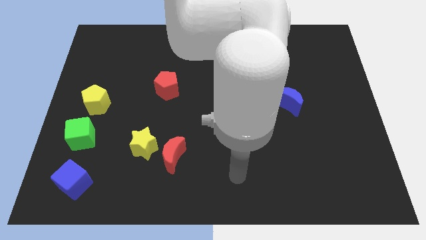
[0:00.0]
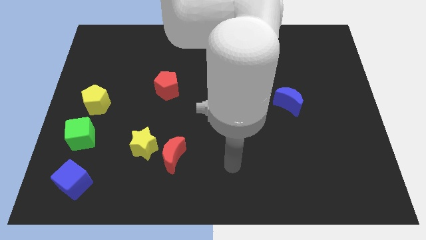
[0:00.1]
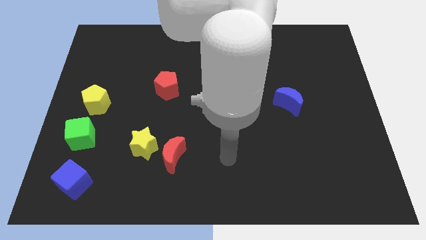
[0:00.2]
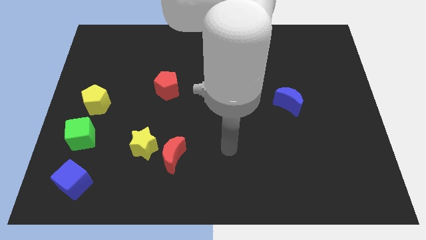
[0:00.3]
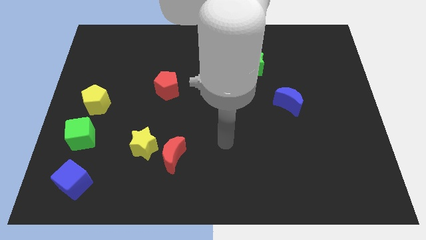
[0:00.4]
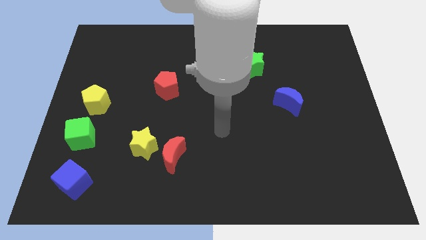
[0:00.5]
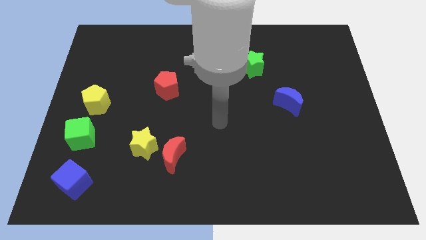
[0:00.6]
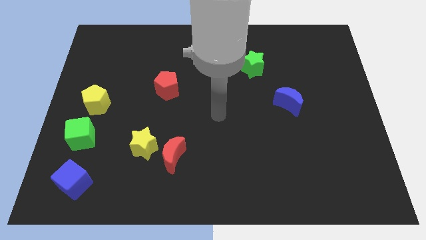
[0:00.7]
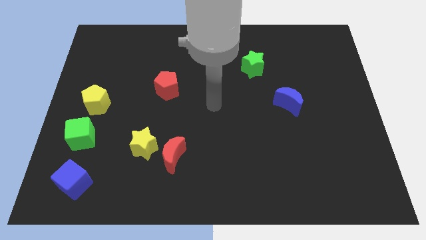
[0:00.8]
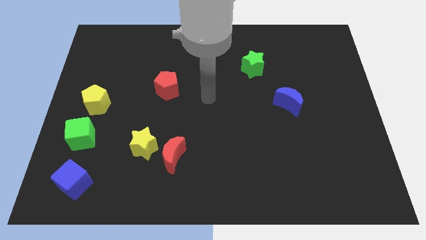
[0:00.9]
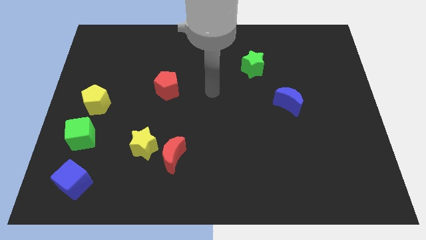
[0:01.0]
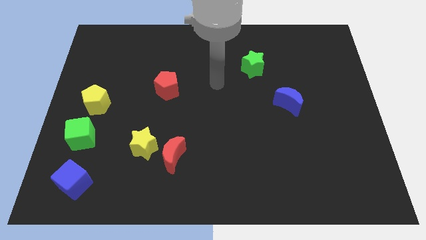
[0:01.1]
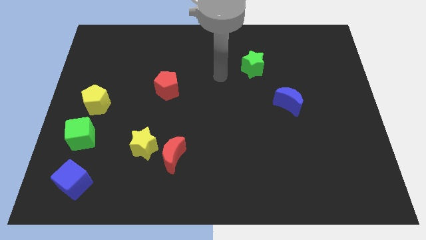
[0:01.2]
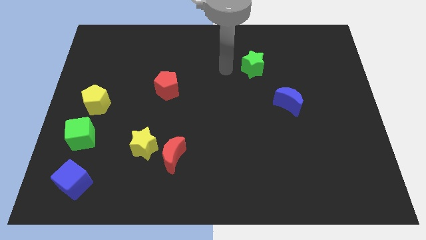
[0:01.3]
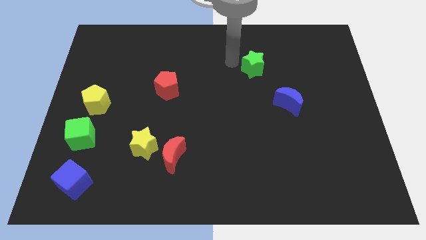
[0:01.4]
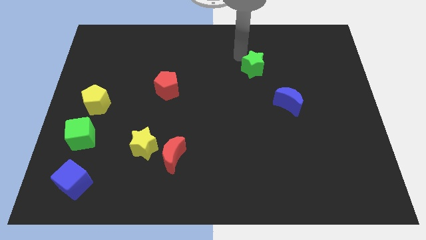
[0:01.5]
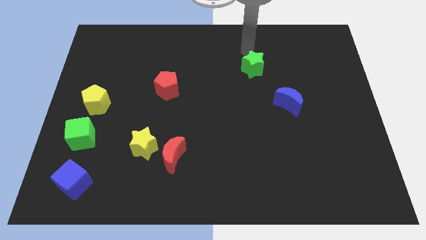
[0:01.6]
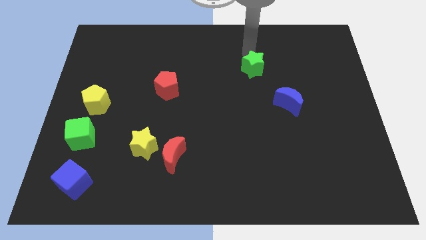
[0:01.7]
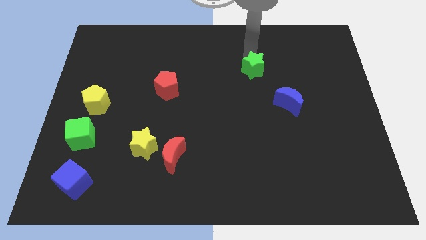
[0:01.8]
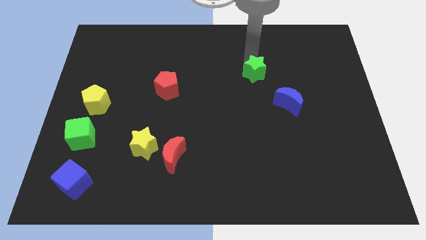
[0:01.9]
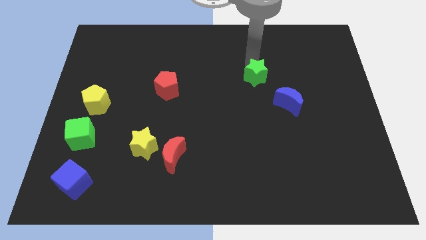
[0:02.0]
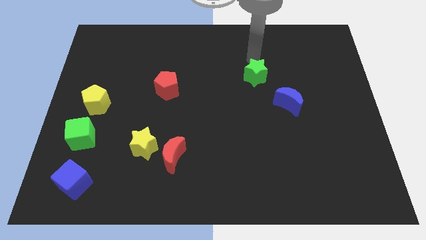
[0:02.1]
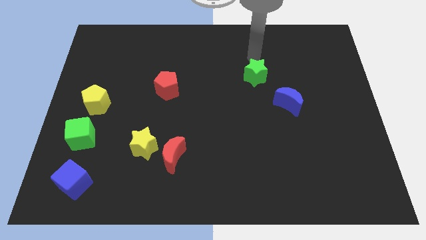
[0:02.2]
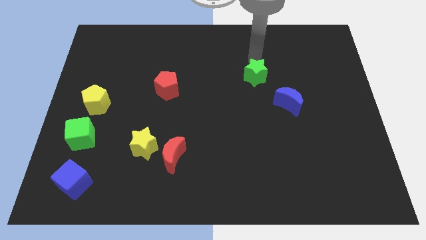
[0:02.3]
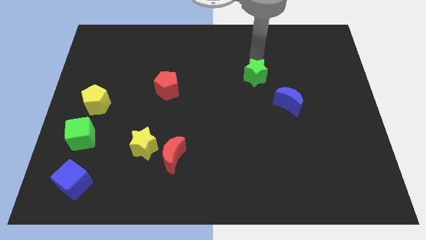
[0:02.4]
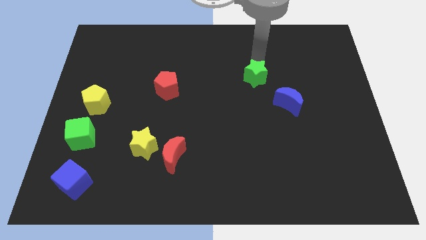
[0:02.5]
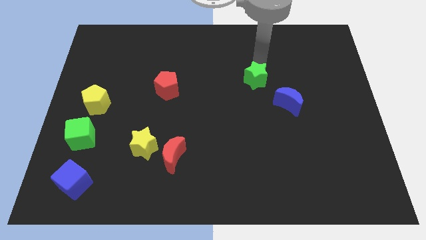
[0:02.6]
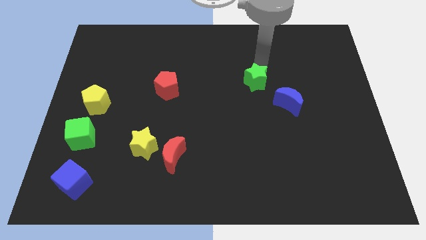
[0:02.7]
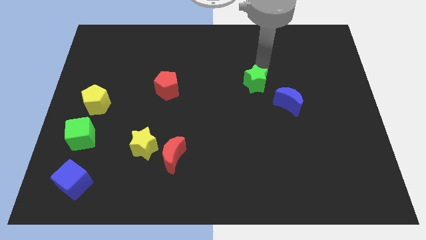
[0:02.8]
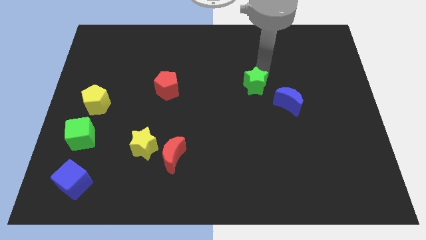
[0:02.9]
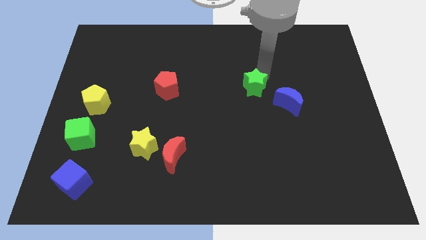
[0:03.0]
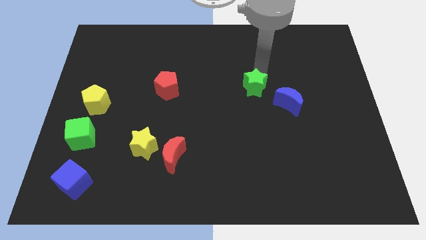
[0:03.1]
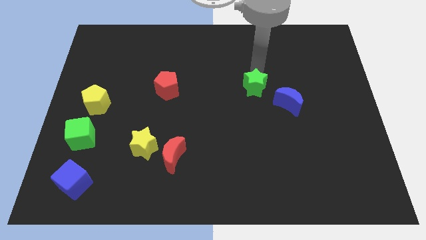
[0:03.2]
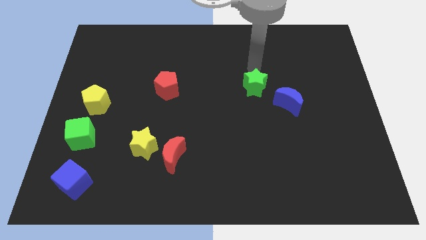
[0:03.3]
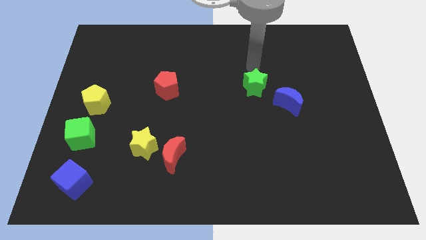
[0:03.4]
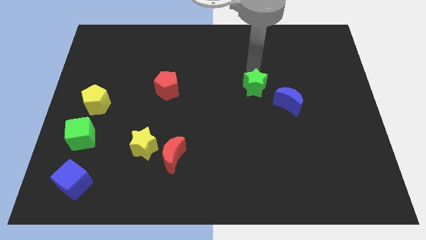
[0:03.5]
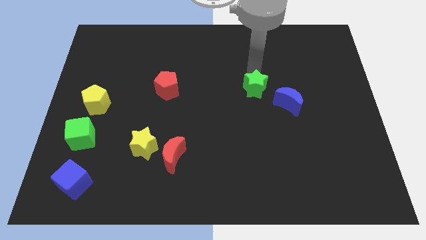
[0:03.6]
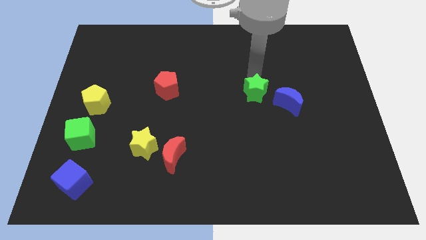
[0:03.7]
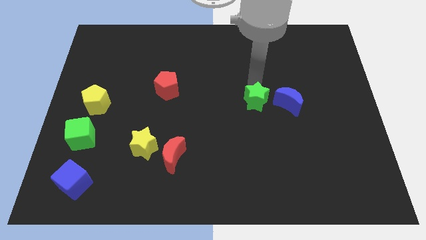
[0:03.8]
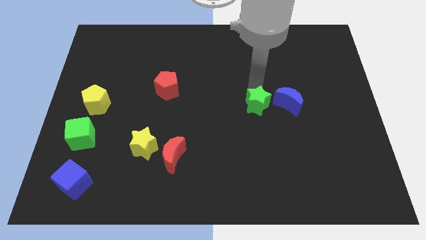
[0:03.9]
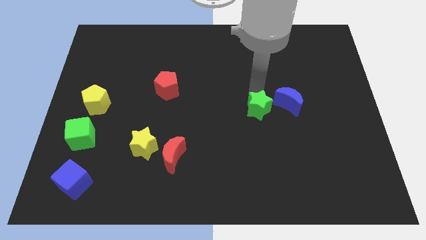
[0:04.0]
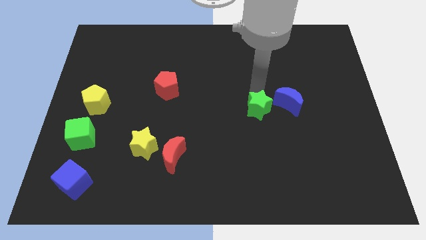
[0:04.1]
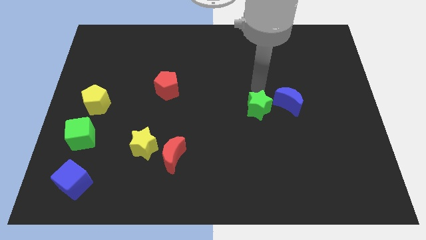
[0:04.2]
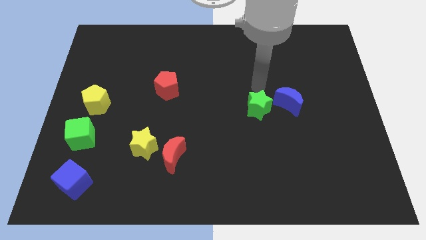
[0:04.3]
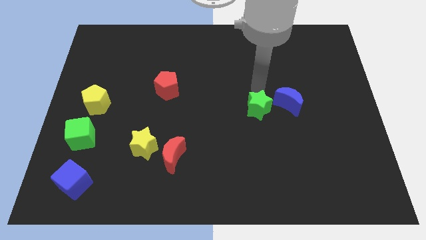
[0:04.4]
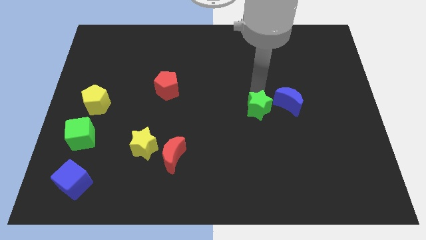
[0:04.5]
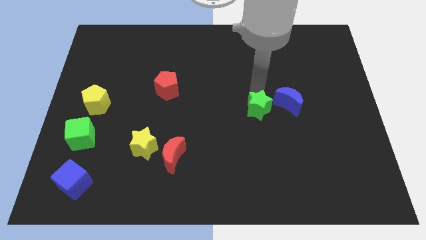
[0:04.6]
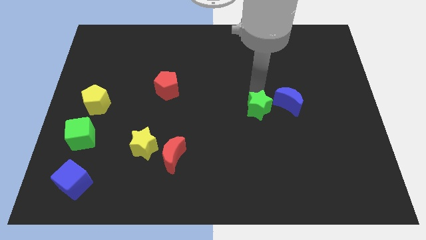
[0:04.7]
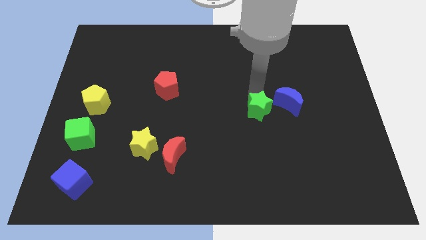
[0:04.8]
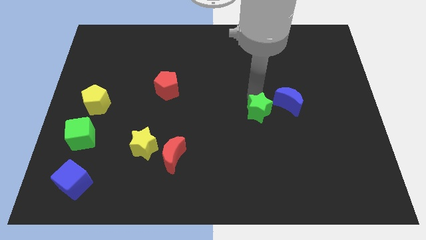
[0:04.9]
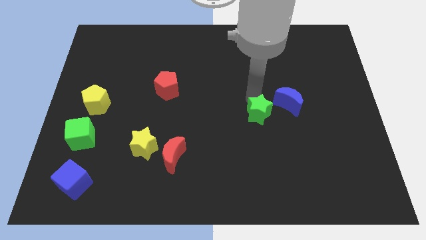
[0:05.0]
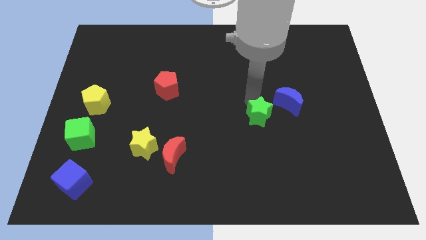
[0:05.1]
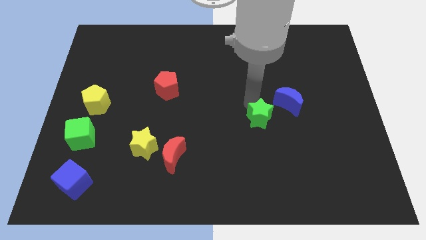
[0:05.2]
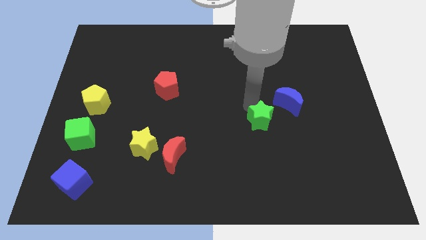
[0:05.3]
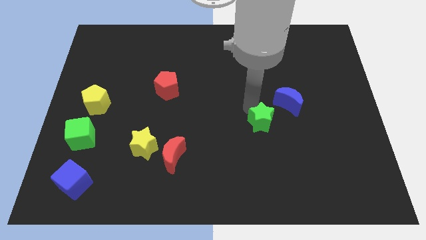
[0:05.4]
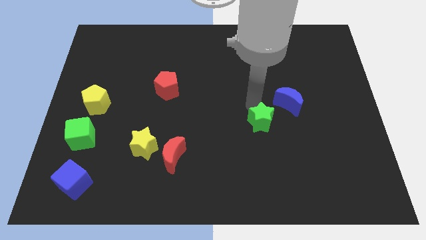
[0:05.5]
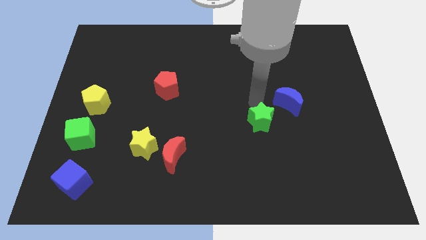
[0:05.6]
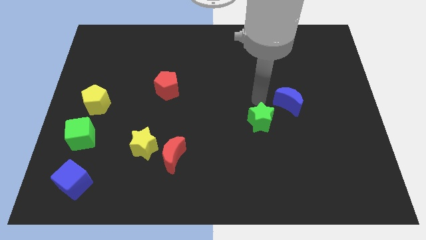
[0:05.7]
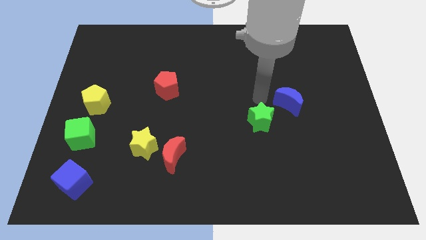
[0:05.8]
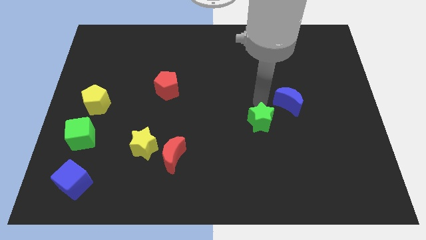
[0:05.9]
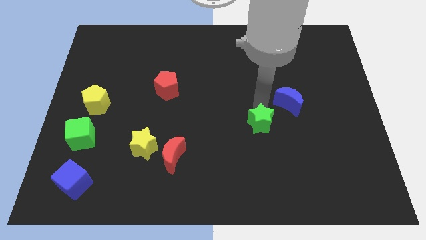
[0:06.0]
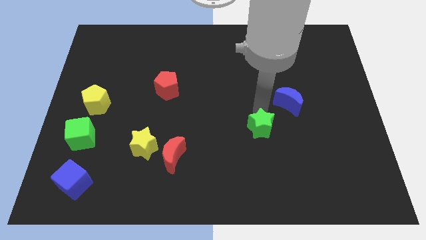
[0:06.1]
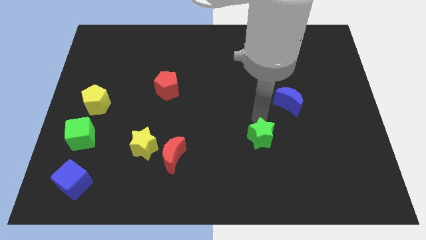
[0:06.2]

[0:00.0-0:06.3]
slide the green star downwards

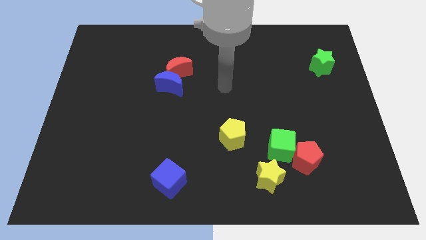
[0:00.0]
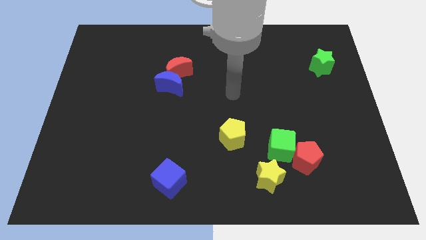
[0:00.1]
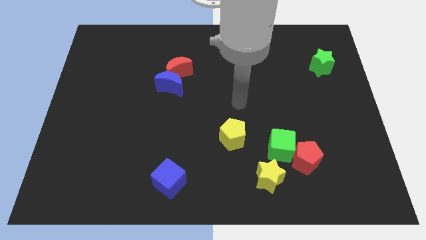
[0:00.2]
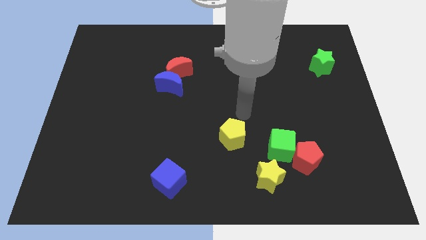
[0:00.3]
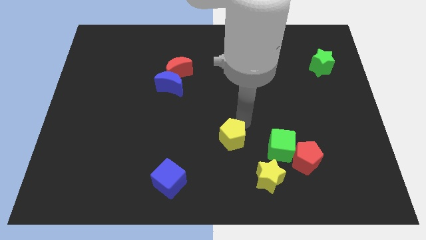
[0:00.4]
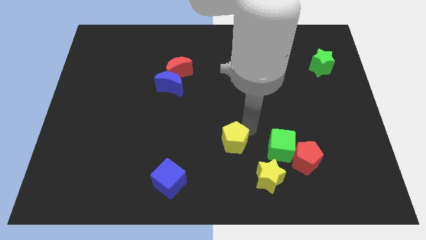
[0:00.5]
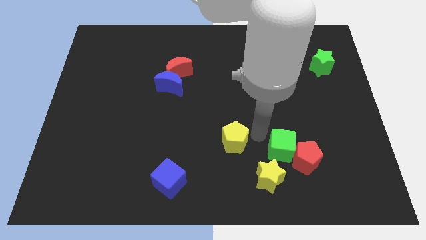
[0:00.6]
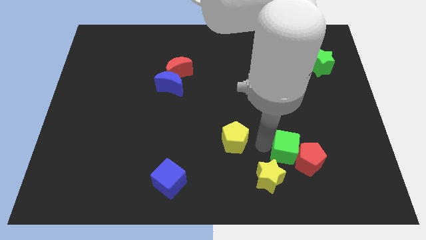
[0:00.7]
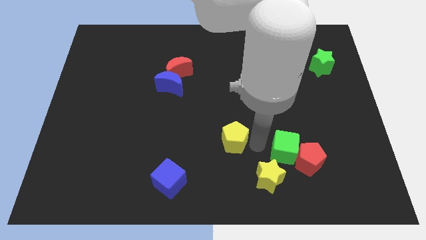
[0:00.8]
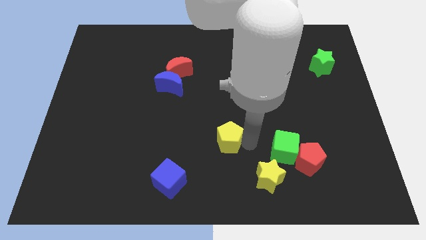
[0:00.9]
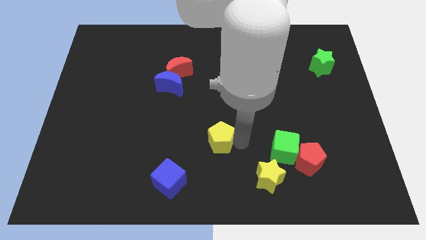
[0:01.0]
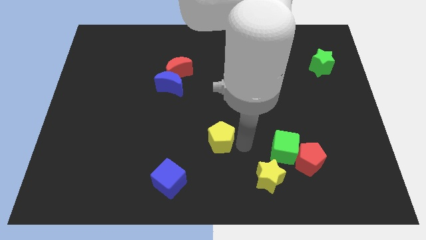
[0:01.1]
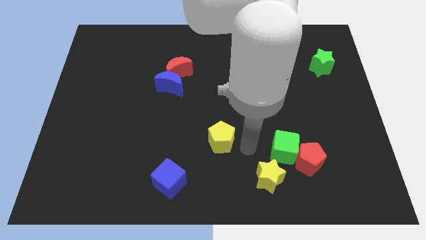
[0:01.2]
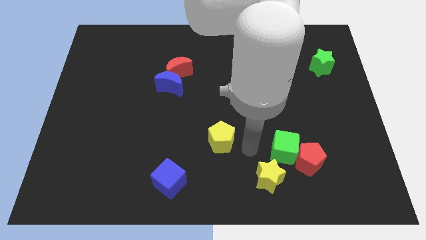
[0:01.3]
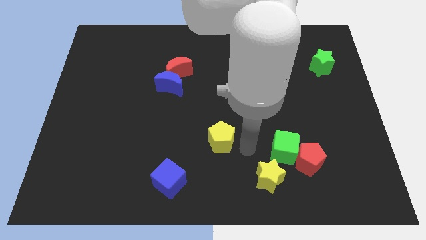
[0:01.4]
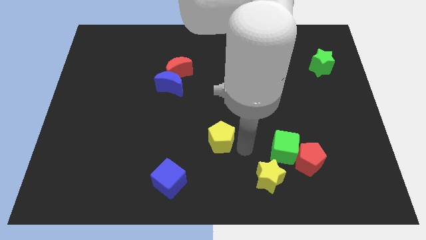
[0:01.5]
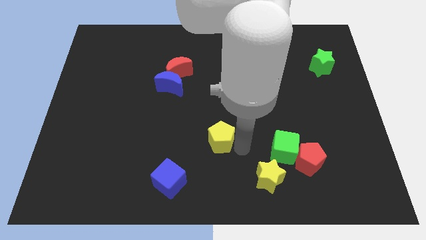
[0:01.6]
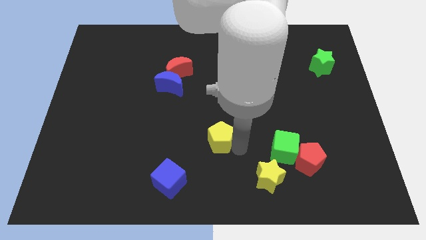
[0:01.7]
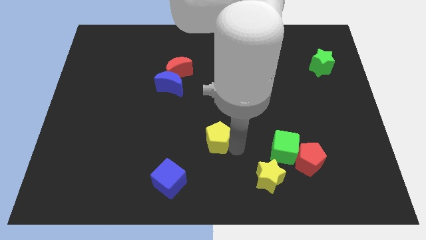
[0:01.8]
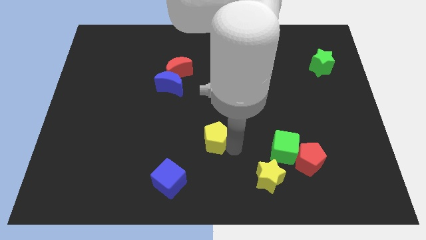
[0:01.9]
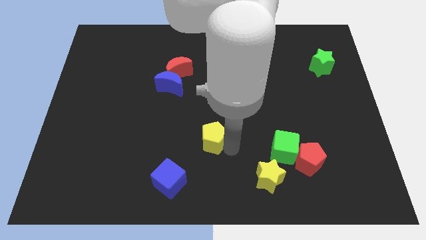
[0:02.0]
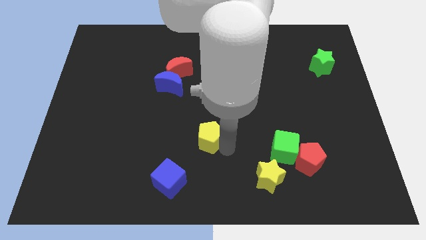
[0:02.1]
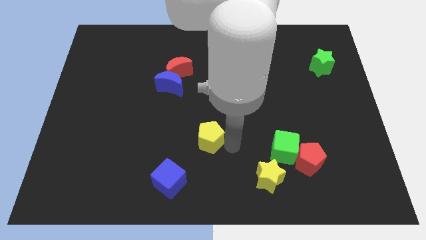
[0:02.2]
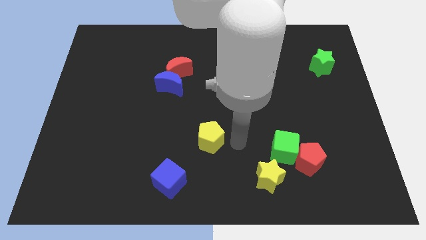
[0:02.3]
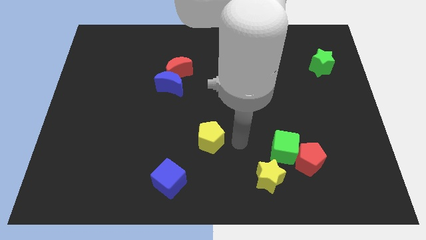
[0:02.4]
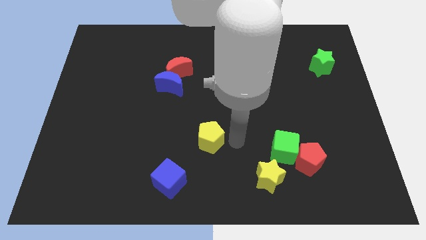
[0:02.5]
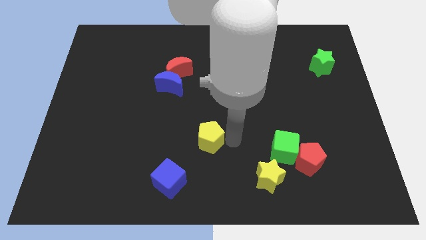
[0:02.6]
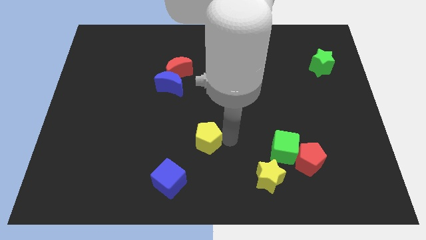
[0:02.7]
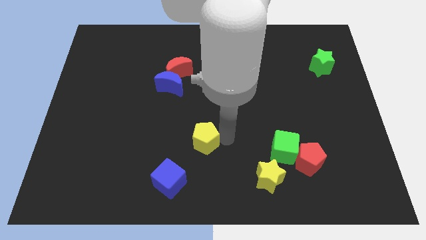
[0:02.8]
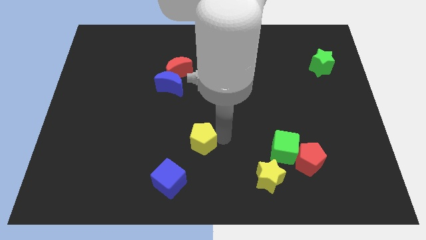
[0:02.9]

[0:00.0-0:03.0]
slightly push the yellow pentagon left
